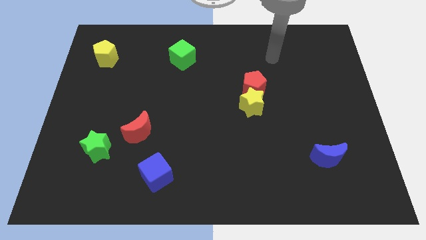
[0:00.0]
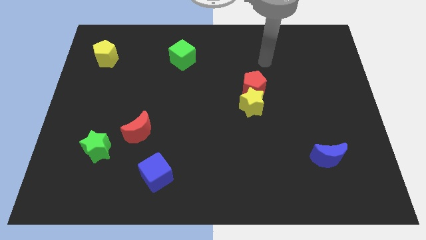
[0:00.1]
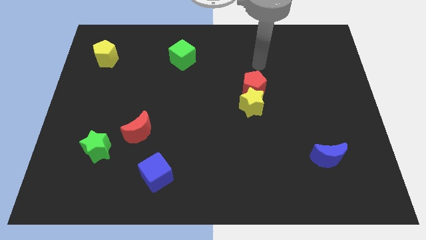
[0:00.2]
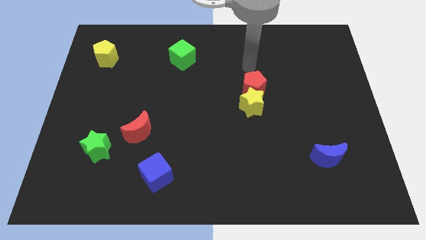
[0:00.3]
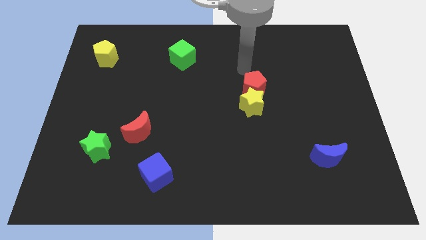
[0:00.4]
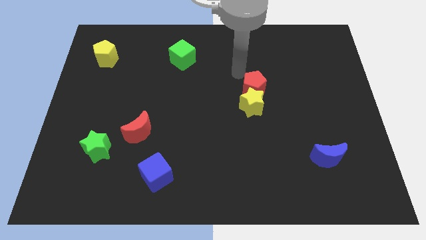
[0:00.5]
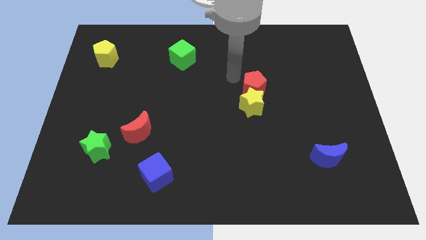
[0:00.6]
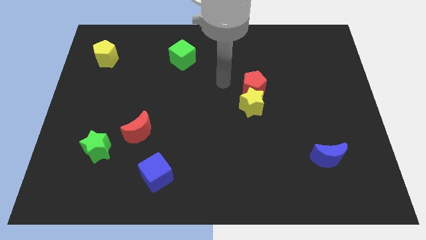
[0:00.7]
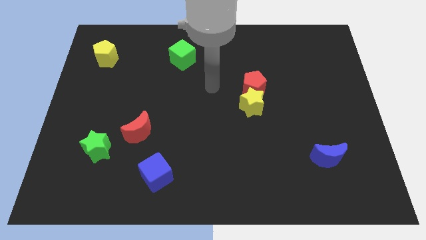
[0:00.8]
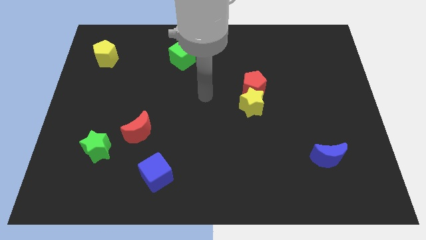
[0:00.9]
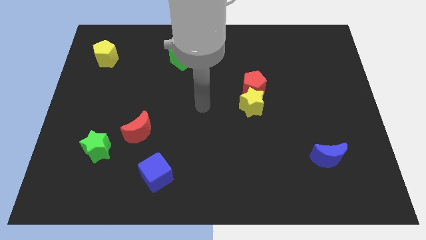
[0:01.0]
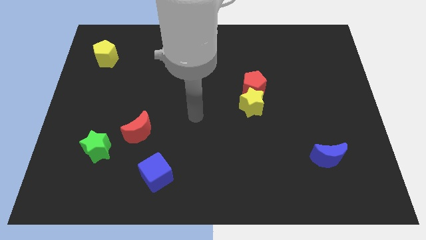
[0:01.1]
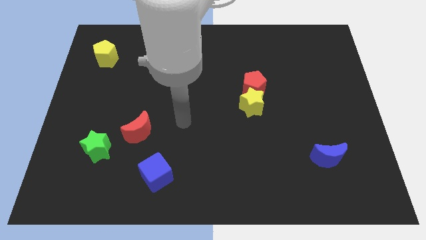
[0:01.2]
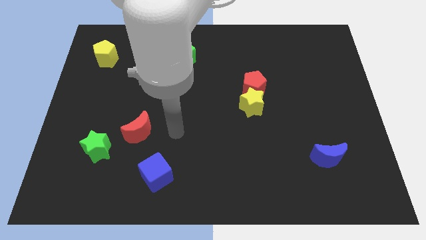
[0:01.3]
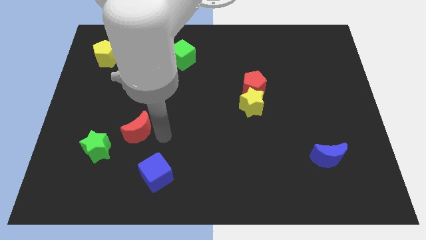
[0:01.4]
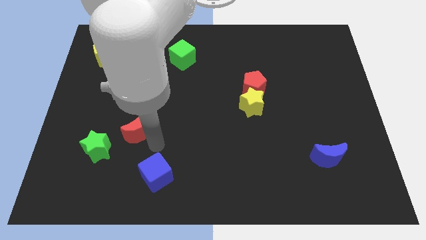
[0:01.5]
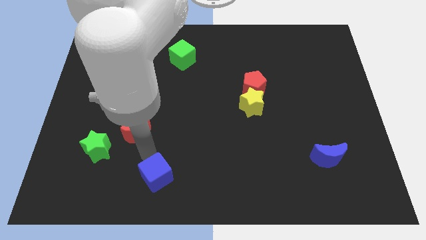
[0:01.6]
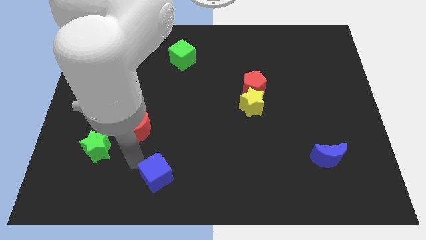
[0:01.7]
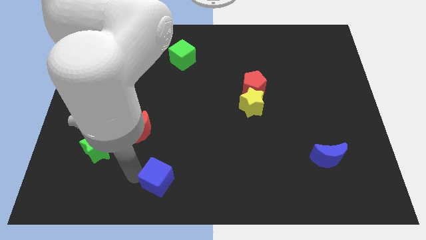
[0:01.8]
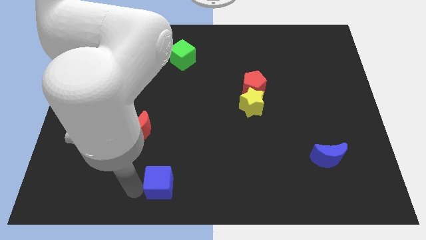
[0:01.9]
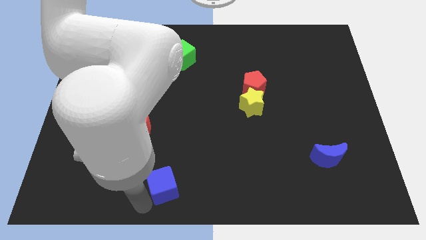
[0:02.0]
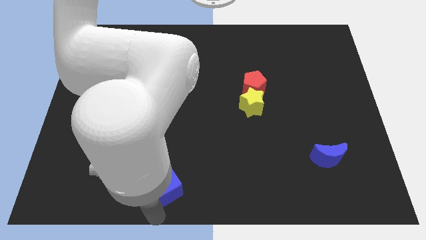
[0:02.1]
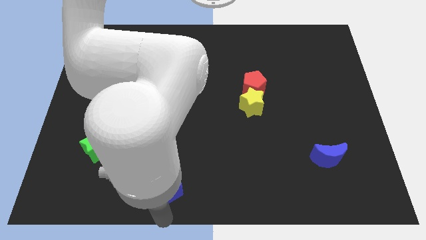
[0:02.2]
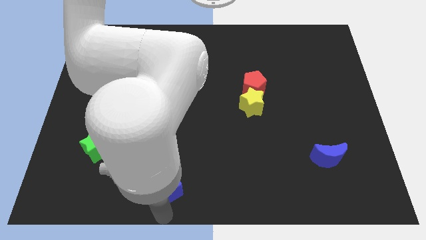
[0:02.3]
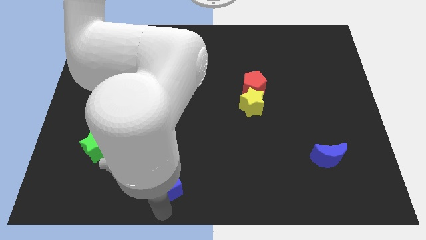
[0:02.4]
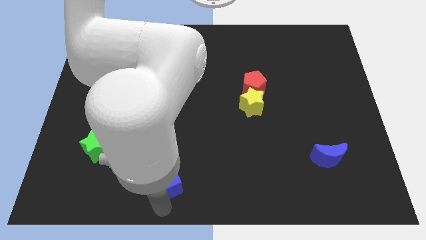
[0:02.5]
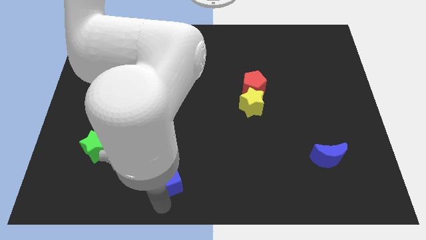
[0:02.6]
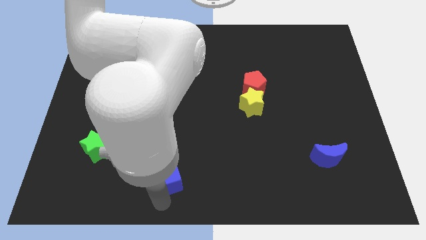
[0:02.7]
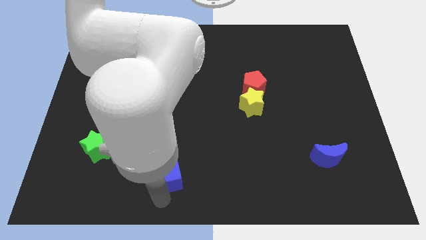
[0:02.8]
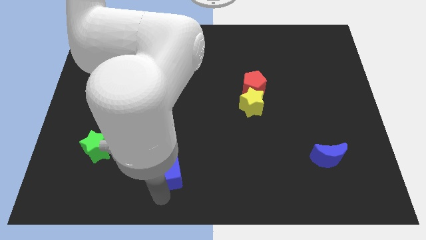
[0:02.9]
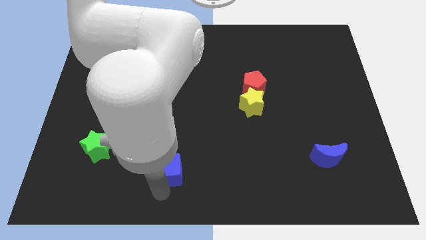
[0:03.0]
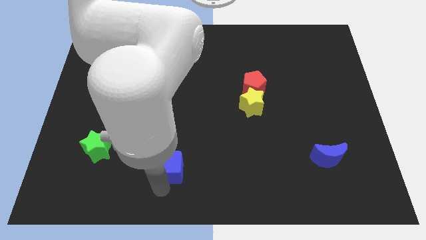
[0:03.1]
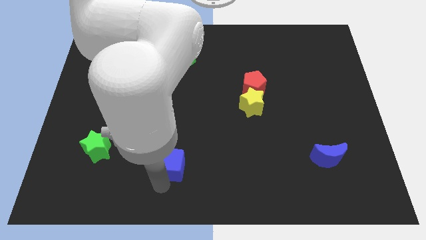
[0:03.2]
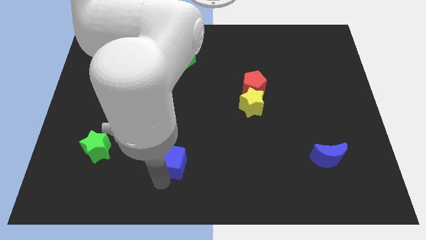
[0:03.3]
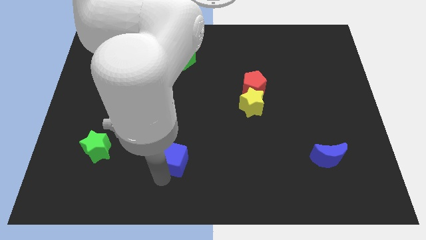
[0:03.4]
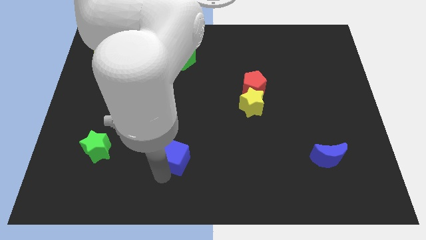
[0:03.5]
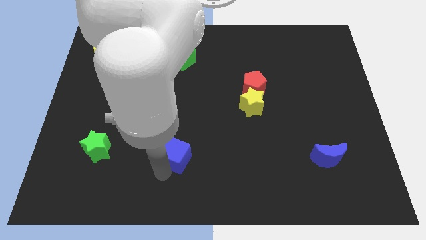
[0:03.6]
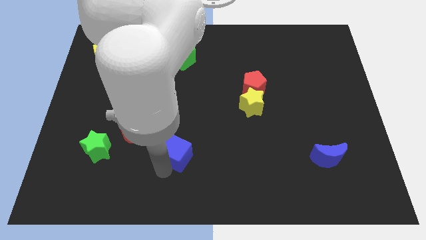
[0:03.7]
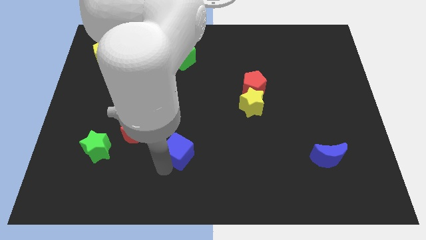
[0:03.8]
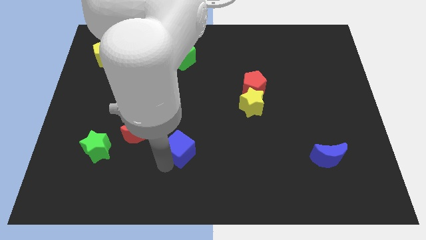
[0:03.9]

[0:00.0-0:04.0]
move the blue cube a little upwards and to the right

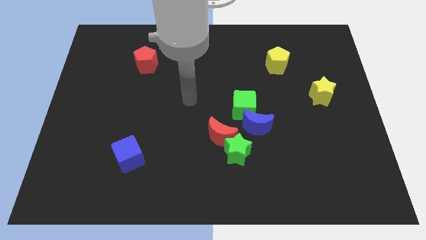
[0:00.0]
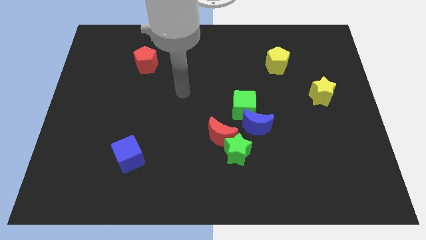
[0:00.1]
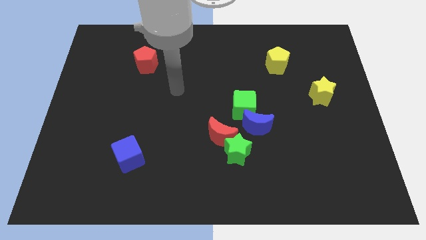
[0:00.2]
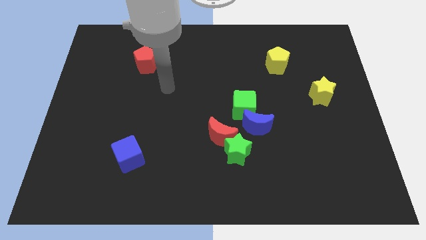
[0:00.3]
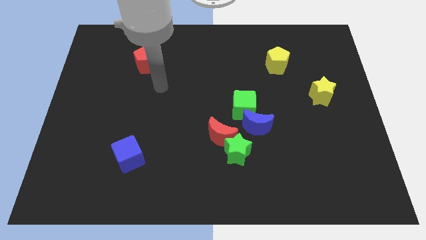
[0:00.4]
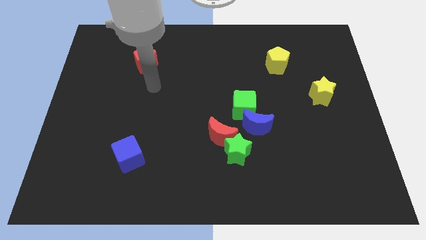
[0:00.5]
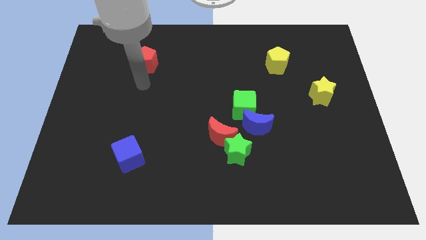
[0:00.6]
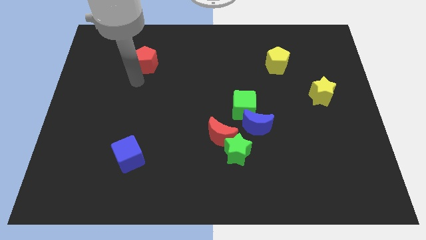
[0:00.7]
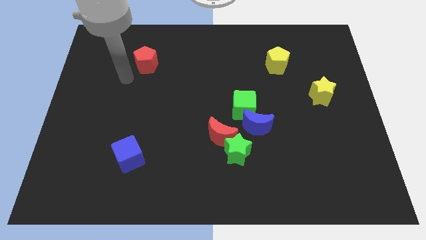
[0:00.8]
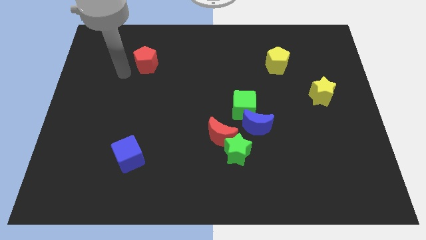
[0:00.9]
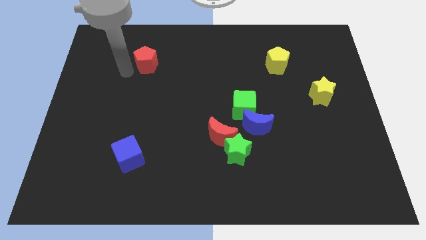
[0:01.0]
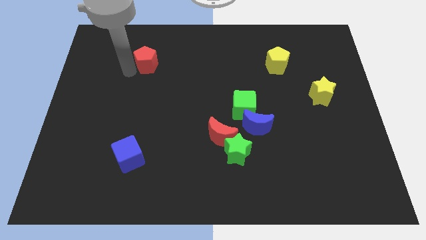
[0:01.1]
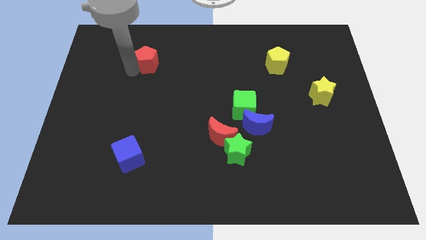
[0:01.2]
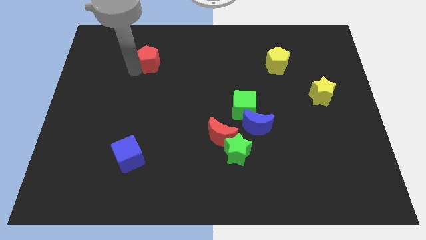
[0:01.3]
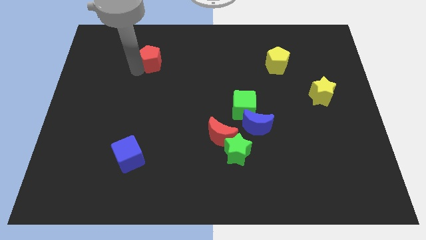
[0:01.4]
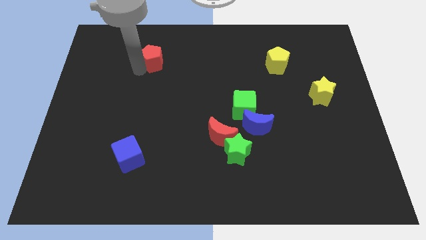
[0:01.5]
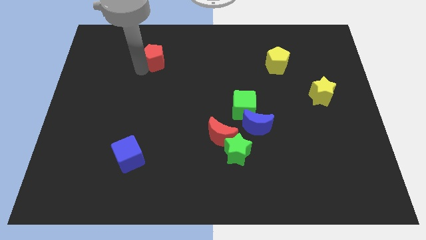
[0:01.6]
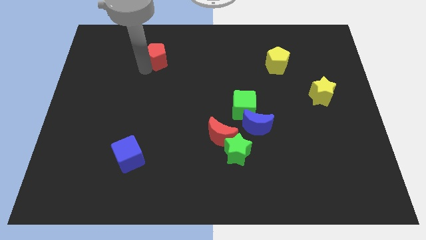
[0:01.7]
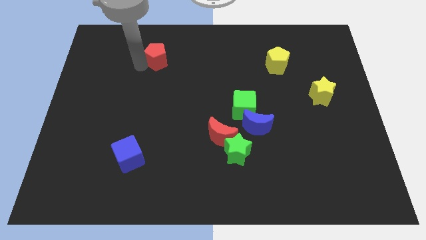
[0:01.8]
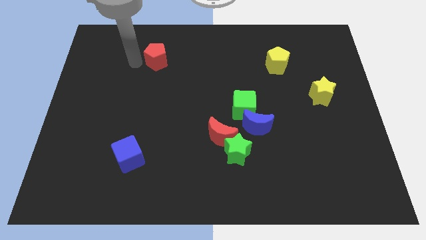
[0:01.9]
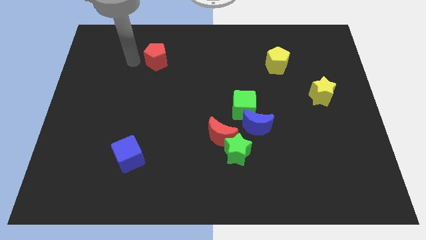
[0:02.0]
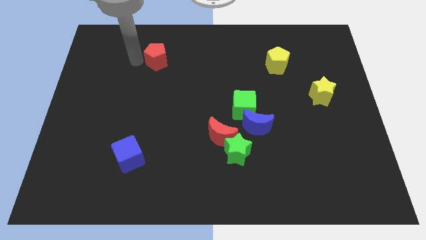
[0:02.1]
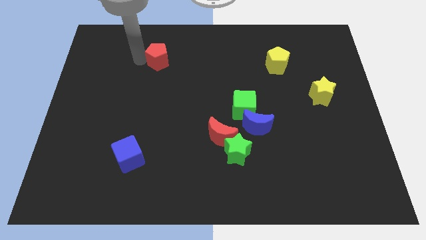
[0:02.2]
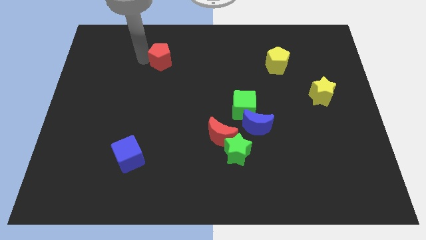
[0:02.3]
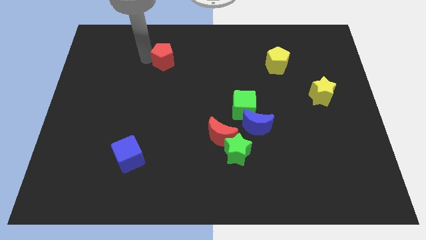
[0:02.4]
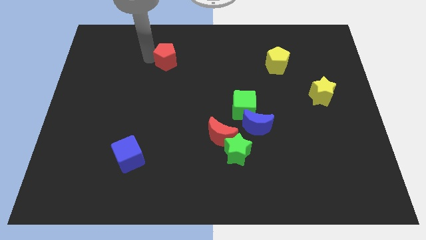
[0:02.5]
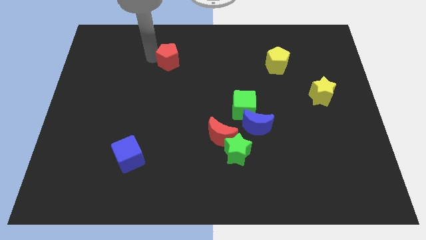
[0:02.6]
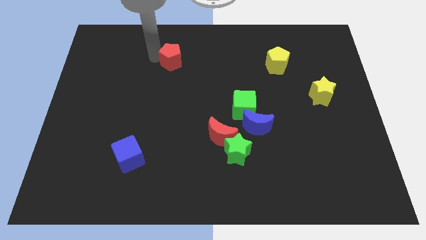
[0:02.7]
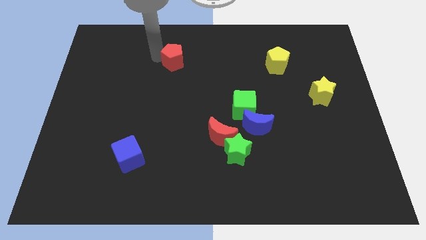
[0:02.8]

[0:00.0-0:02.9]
slightly slide the red pentagon right

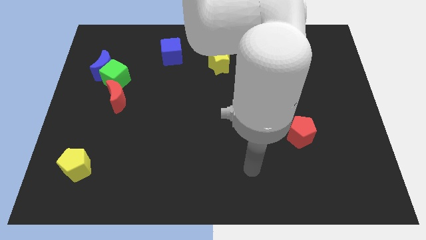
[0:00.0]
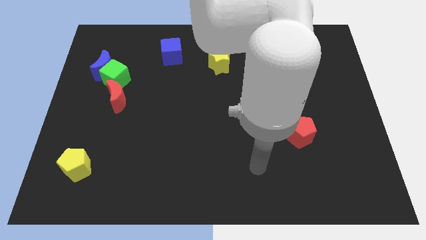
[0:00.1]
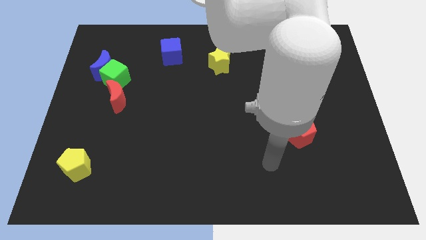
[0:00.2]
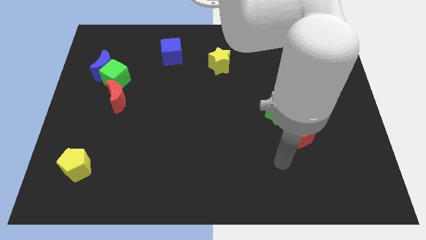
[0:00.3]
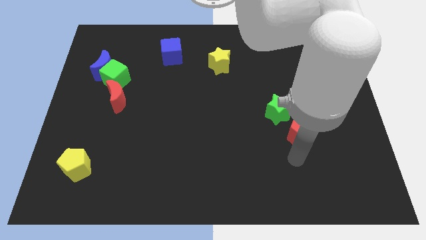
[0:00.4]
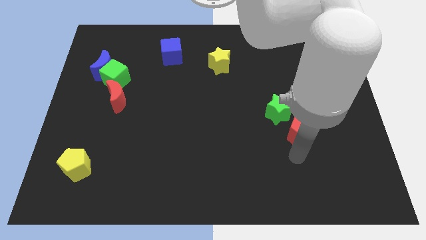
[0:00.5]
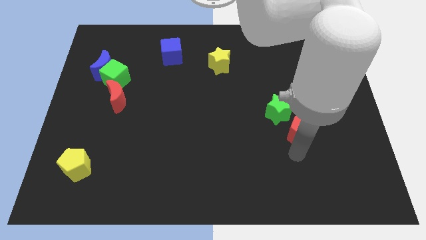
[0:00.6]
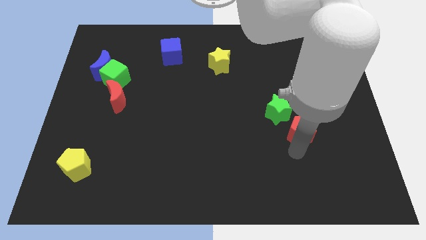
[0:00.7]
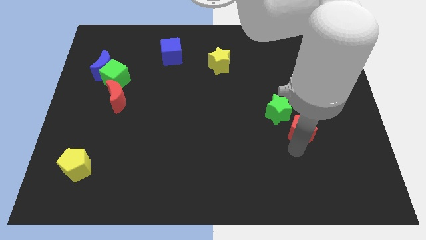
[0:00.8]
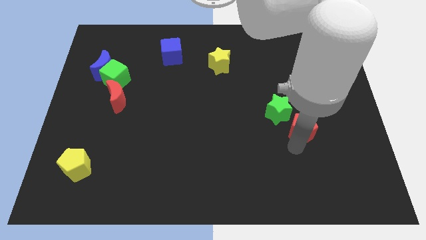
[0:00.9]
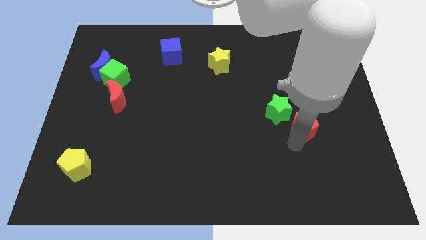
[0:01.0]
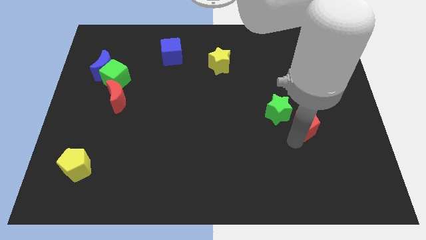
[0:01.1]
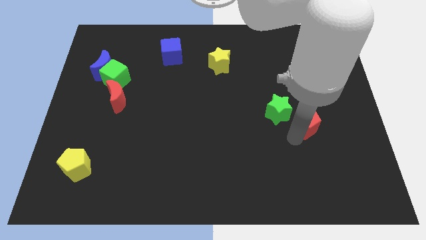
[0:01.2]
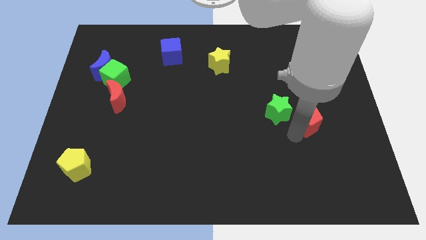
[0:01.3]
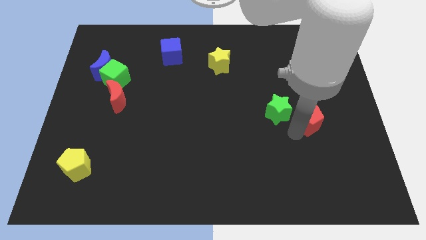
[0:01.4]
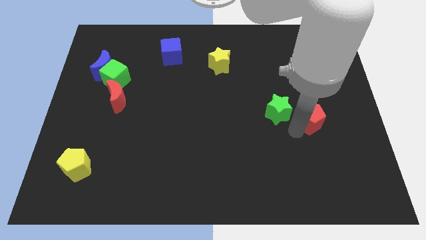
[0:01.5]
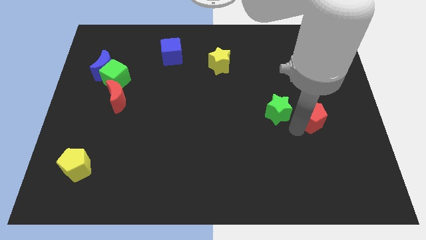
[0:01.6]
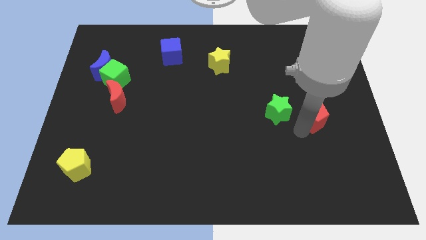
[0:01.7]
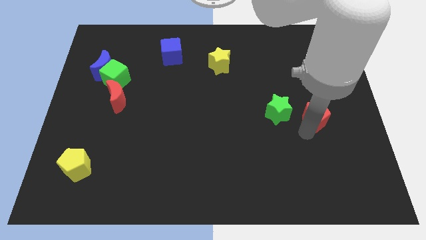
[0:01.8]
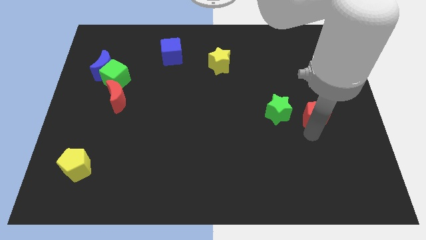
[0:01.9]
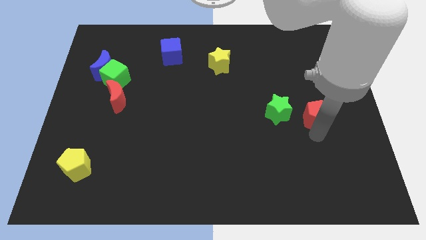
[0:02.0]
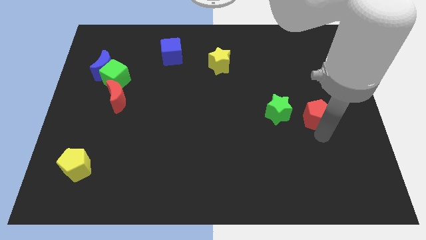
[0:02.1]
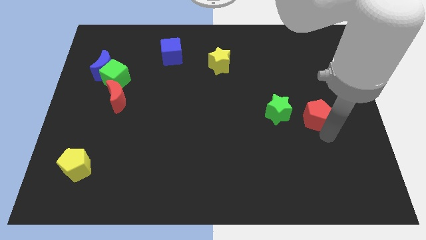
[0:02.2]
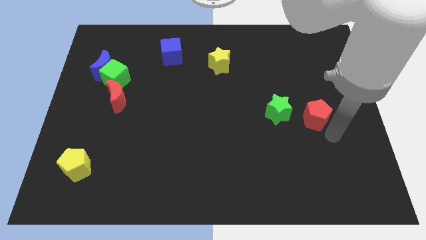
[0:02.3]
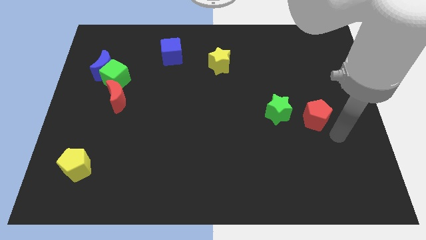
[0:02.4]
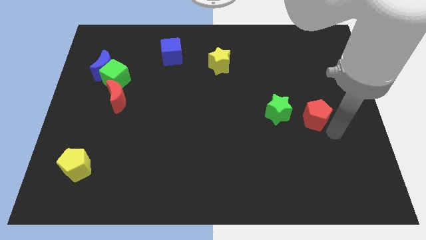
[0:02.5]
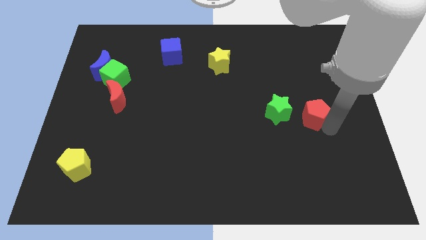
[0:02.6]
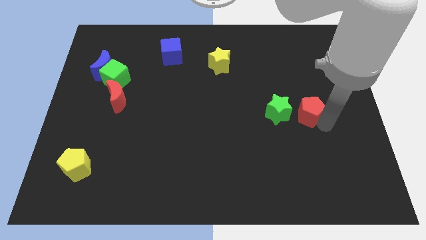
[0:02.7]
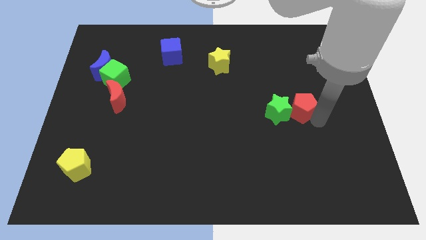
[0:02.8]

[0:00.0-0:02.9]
move the red pentagon up slightly
